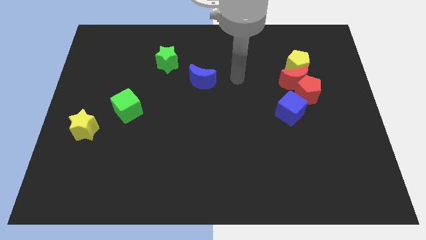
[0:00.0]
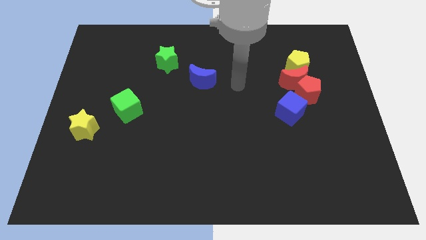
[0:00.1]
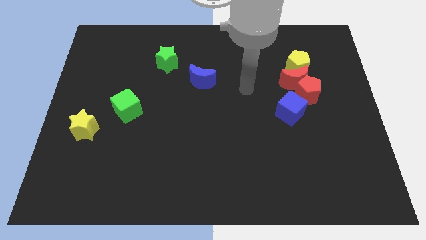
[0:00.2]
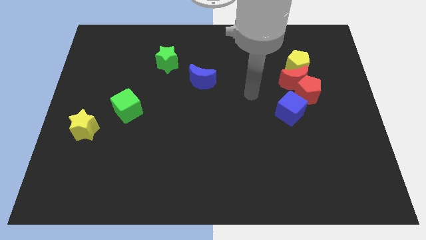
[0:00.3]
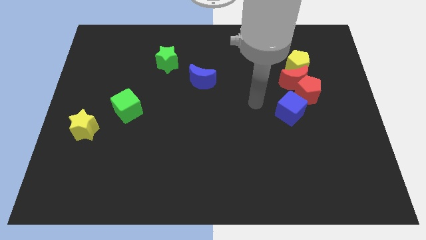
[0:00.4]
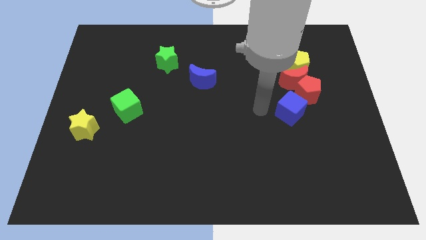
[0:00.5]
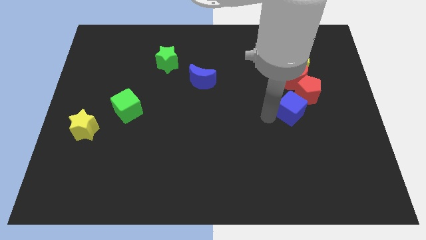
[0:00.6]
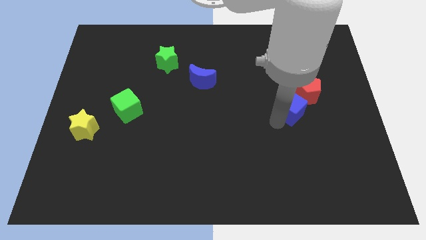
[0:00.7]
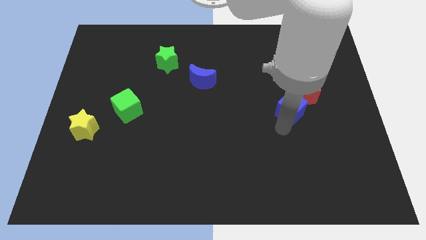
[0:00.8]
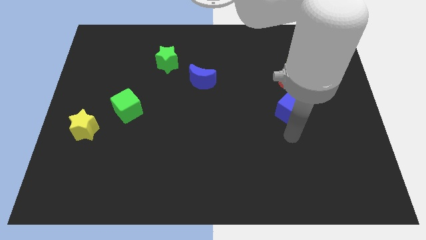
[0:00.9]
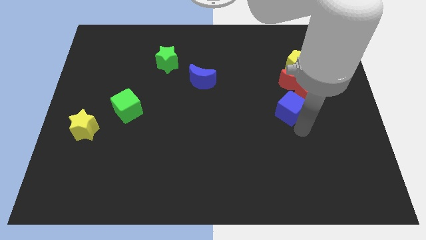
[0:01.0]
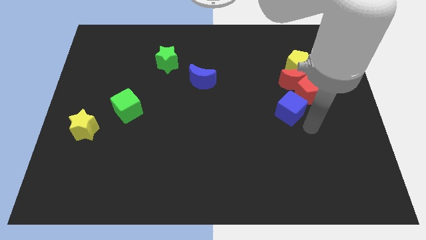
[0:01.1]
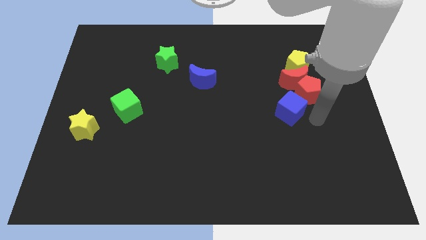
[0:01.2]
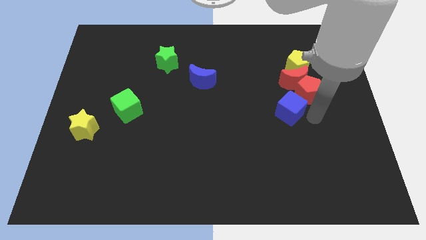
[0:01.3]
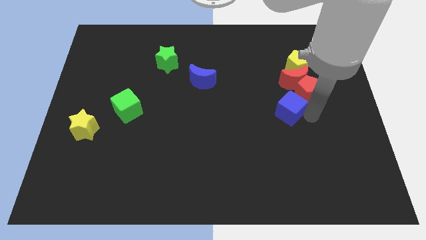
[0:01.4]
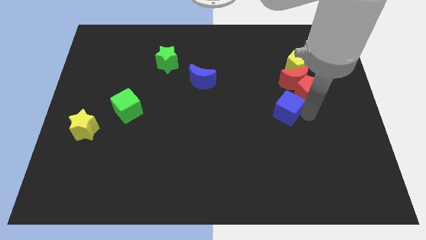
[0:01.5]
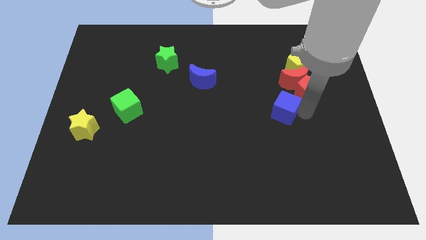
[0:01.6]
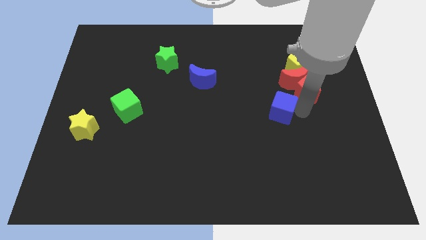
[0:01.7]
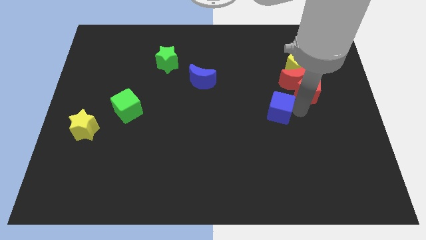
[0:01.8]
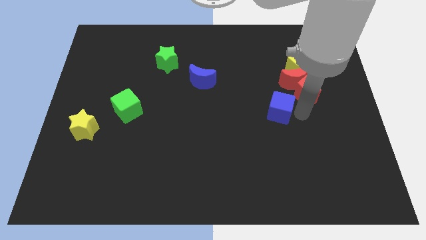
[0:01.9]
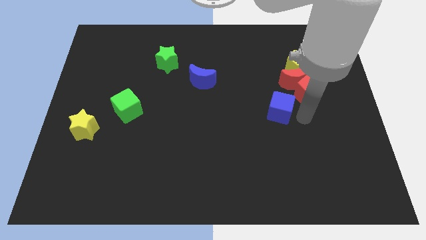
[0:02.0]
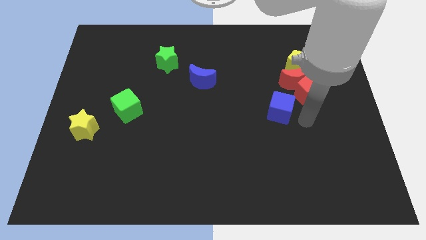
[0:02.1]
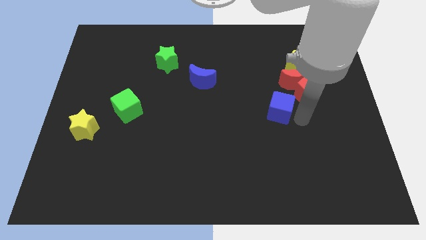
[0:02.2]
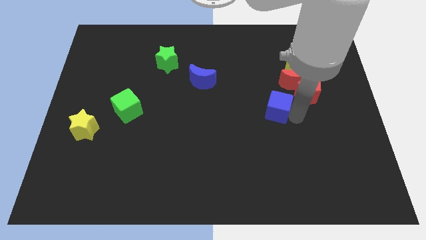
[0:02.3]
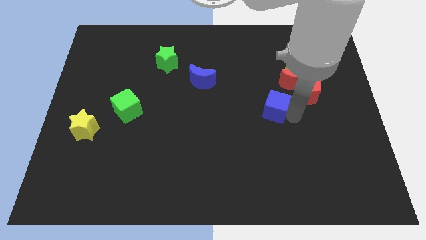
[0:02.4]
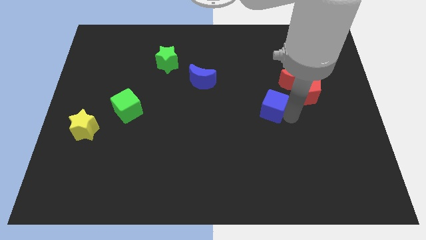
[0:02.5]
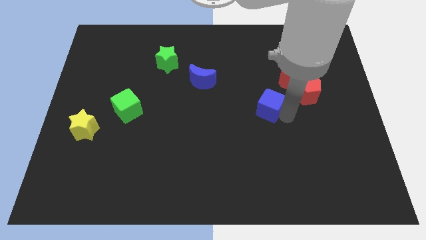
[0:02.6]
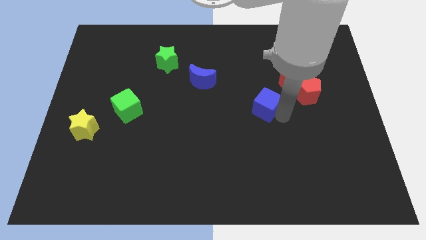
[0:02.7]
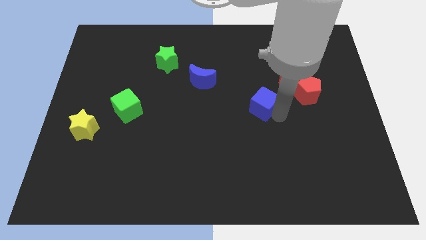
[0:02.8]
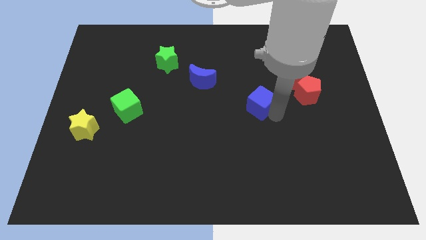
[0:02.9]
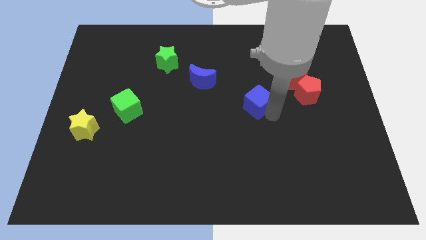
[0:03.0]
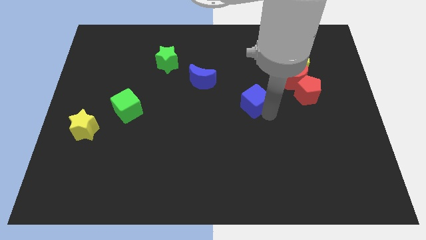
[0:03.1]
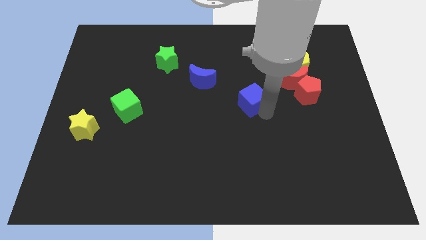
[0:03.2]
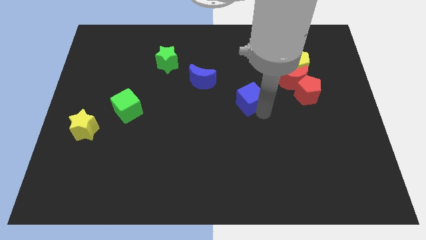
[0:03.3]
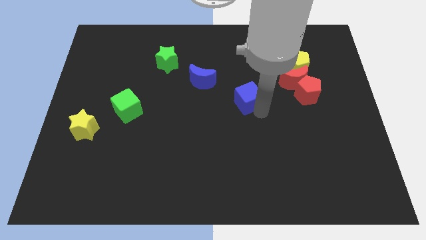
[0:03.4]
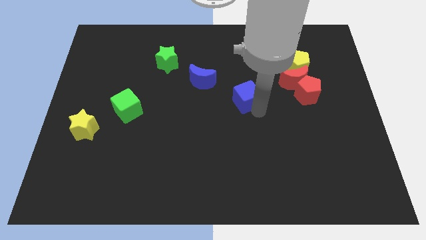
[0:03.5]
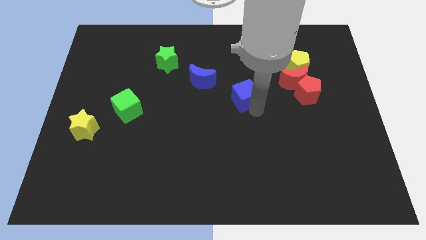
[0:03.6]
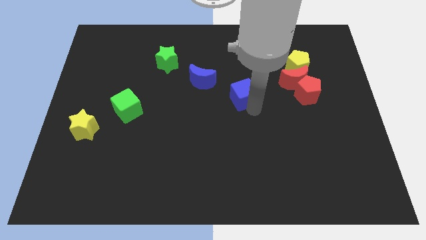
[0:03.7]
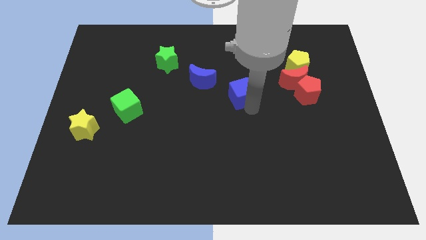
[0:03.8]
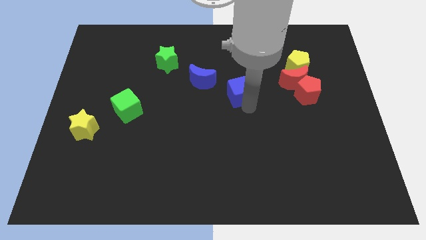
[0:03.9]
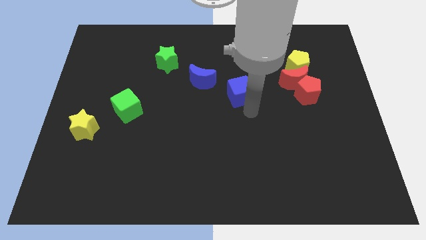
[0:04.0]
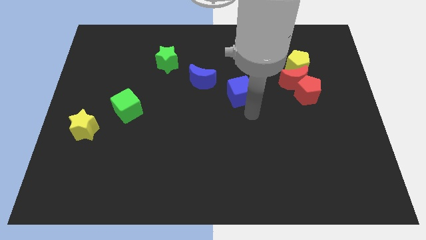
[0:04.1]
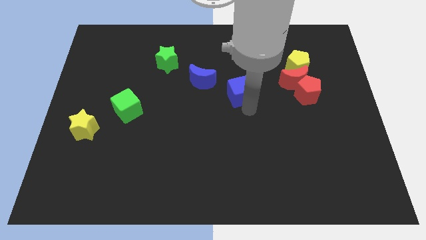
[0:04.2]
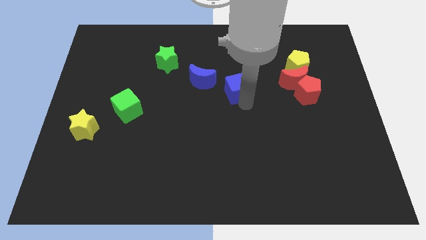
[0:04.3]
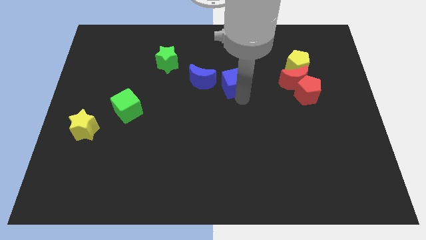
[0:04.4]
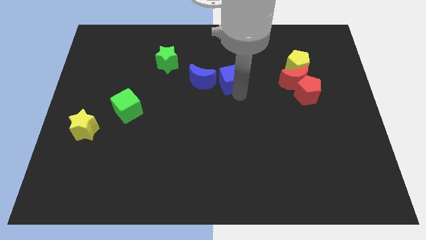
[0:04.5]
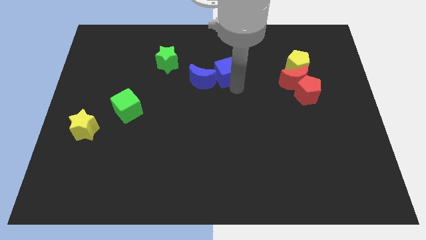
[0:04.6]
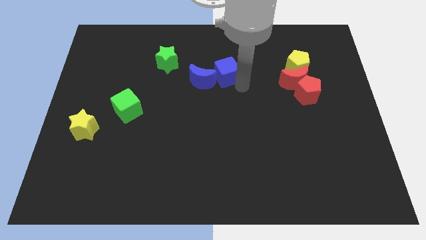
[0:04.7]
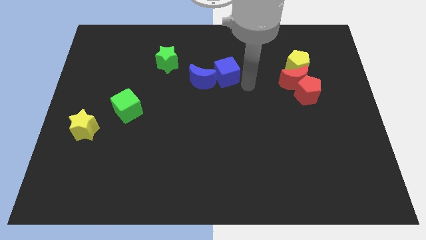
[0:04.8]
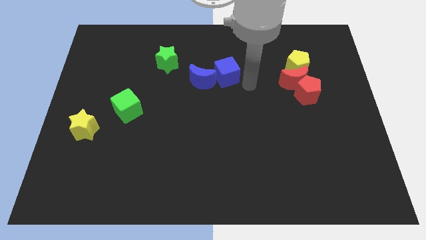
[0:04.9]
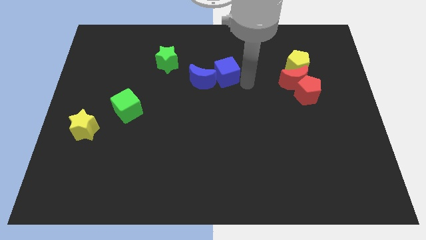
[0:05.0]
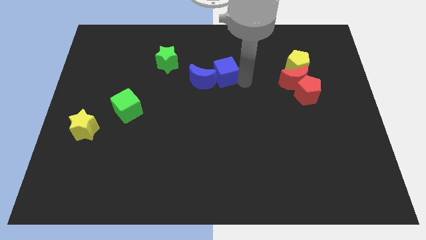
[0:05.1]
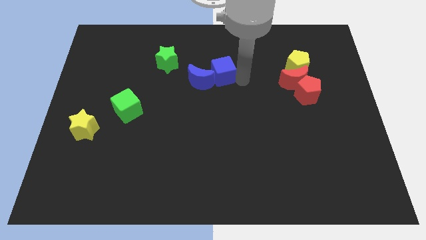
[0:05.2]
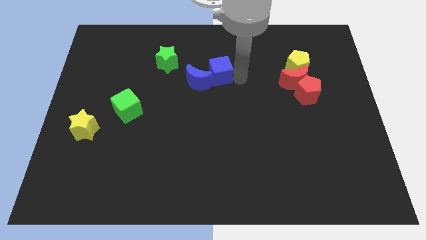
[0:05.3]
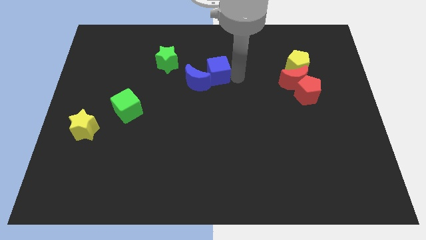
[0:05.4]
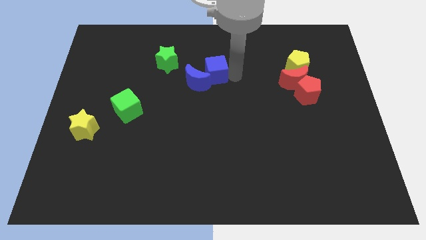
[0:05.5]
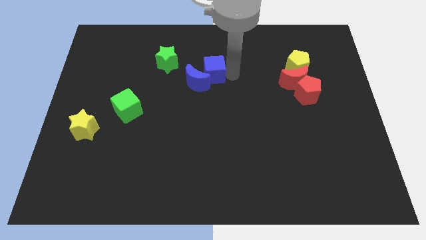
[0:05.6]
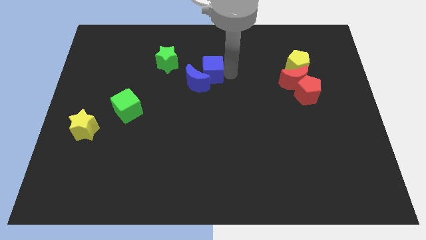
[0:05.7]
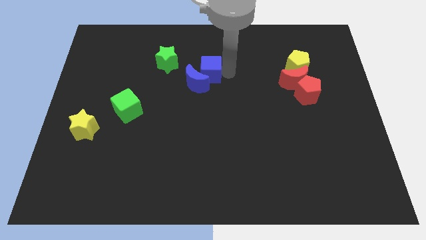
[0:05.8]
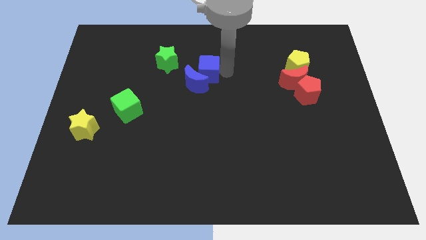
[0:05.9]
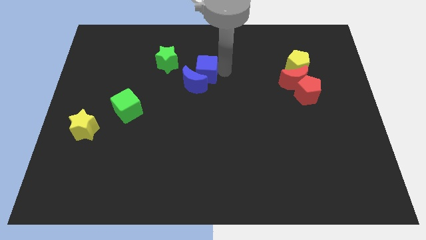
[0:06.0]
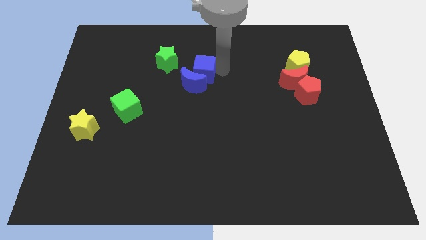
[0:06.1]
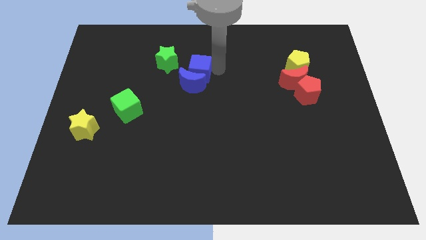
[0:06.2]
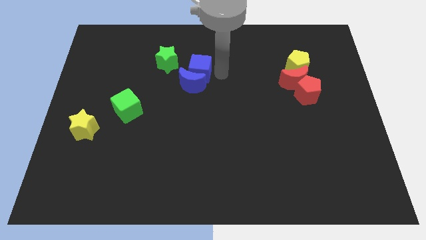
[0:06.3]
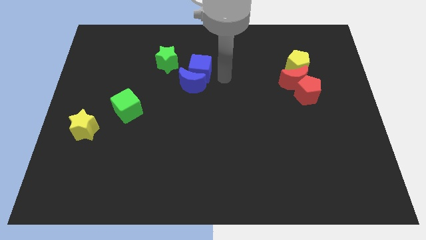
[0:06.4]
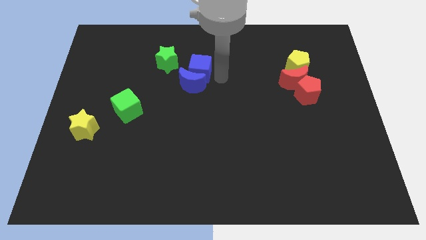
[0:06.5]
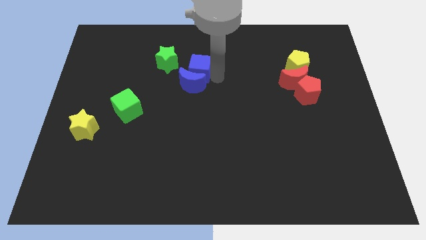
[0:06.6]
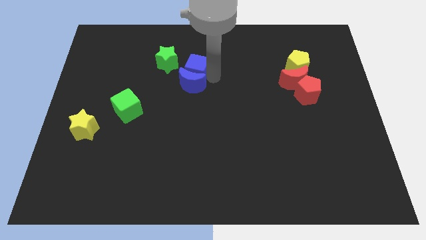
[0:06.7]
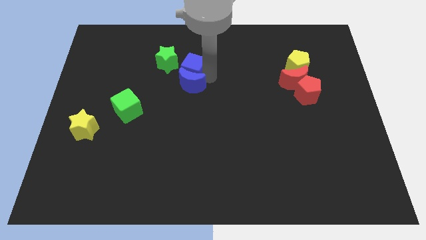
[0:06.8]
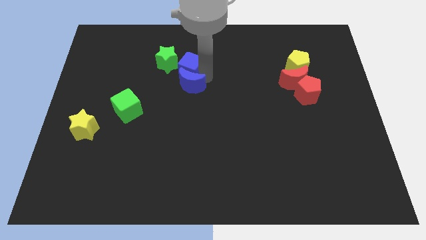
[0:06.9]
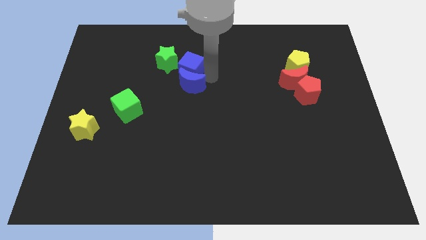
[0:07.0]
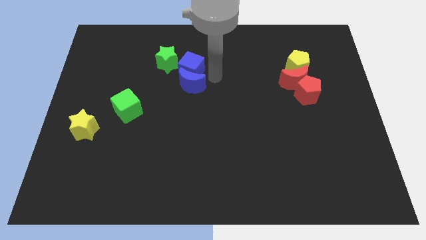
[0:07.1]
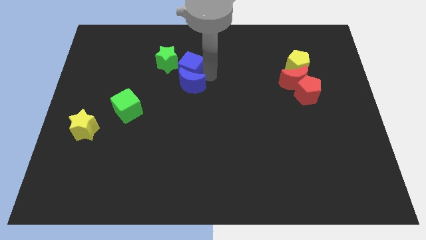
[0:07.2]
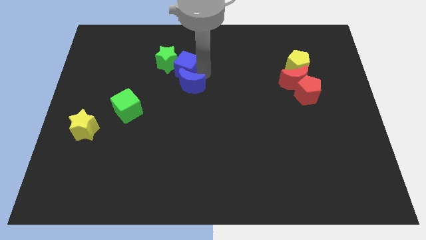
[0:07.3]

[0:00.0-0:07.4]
push the blue cube close to the green star

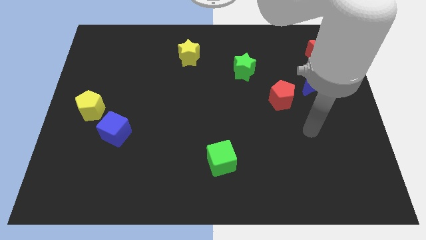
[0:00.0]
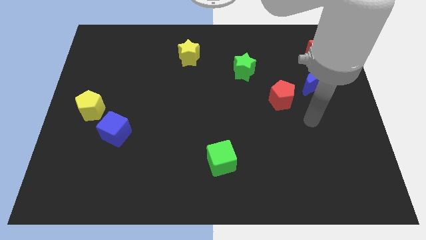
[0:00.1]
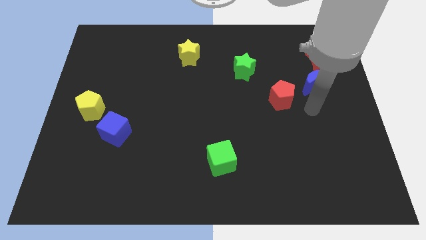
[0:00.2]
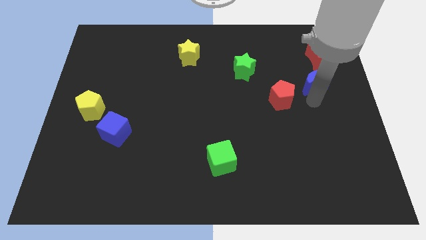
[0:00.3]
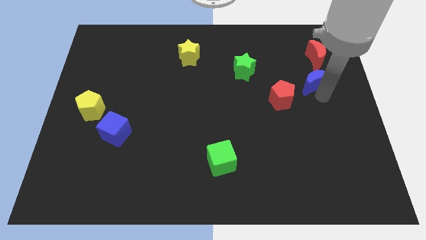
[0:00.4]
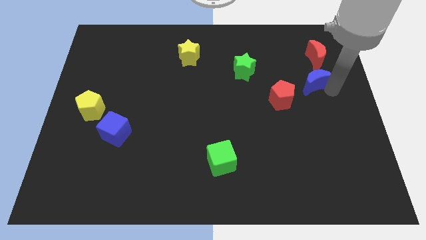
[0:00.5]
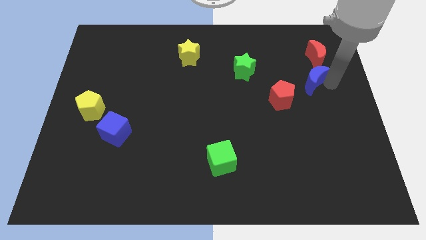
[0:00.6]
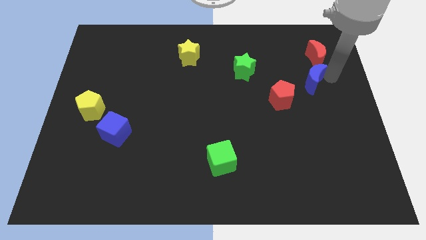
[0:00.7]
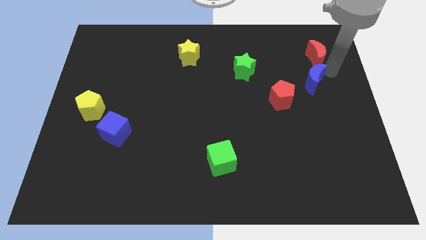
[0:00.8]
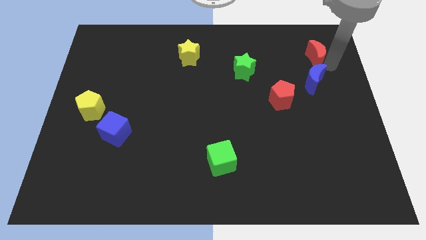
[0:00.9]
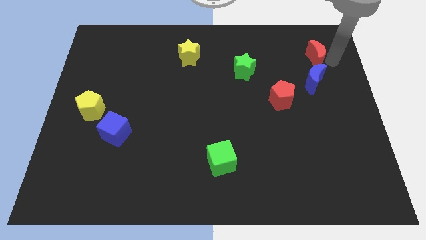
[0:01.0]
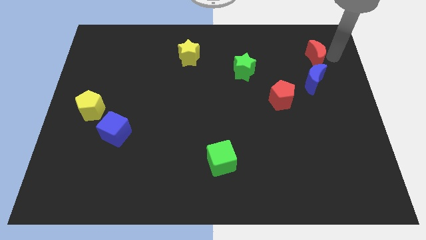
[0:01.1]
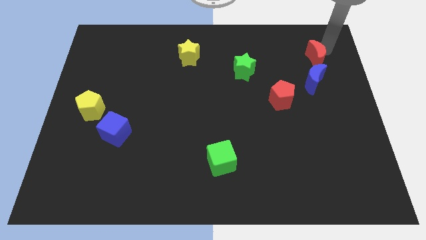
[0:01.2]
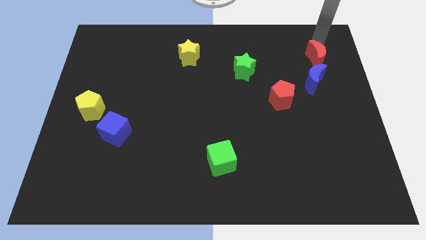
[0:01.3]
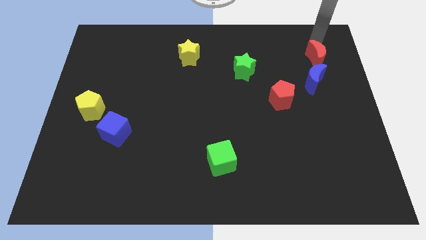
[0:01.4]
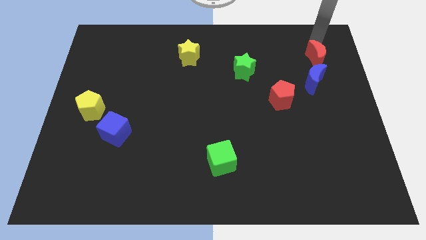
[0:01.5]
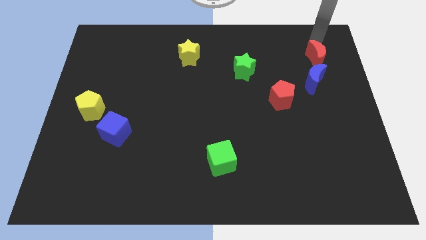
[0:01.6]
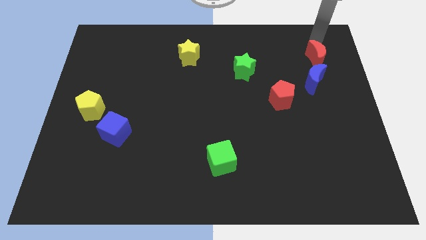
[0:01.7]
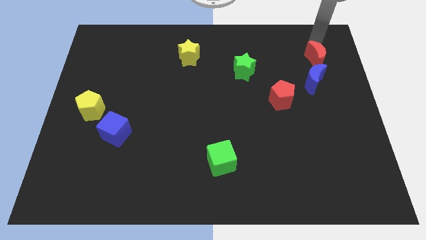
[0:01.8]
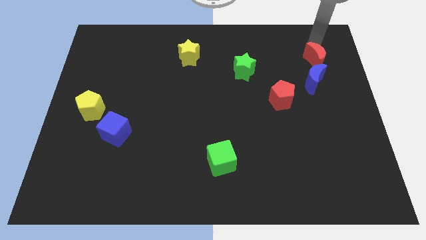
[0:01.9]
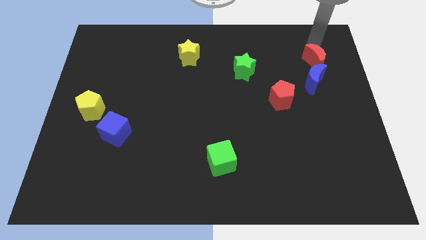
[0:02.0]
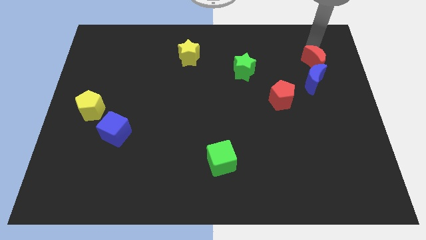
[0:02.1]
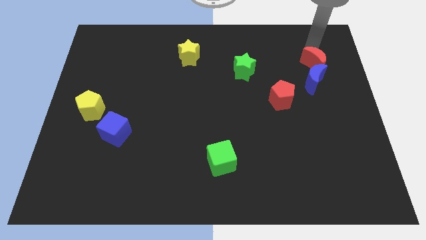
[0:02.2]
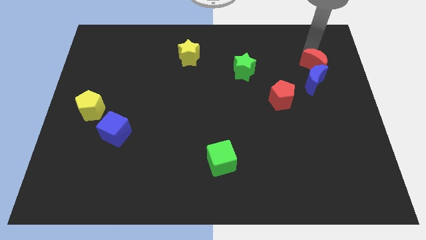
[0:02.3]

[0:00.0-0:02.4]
move the red moon close to the blue moon
